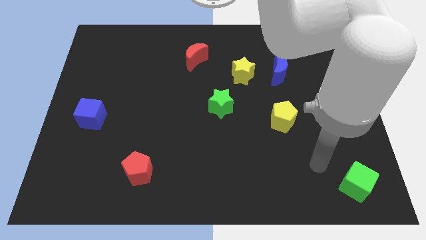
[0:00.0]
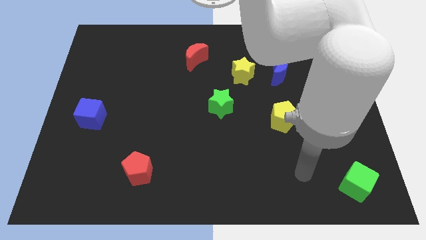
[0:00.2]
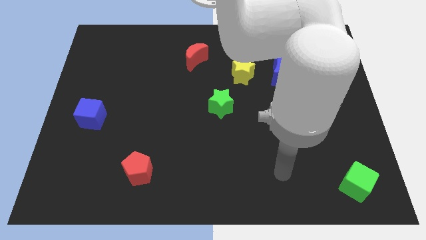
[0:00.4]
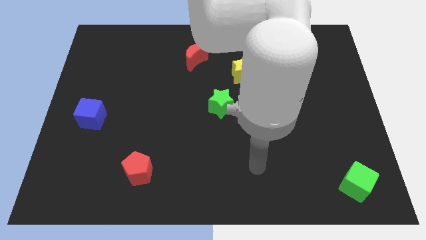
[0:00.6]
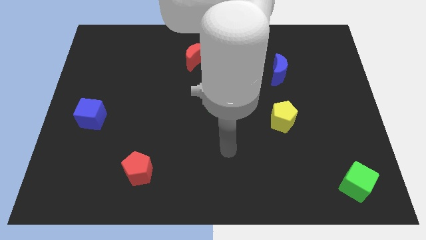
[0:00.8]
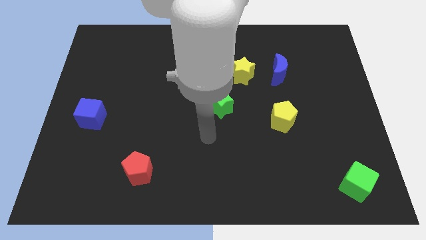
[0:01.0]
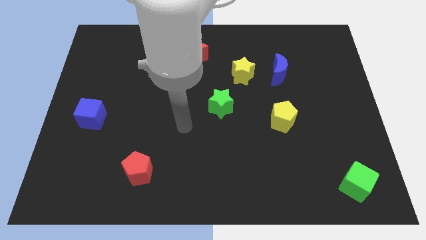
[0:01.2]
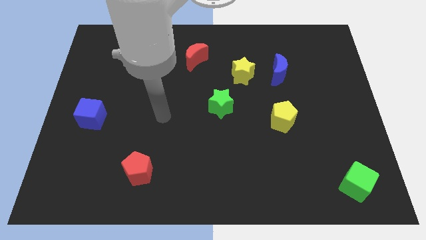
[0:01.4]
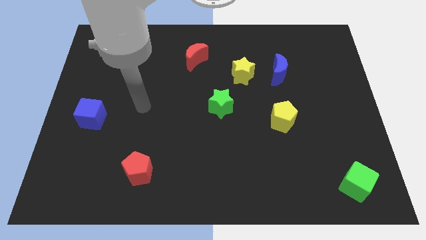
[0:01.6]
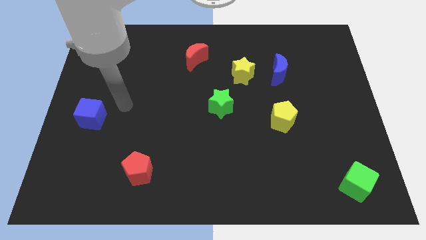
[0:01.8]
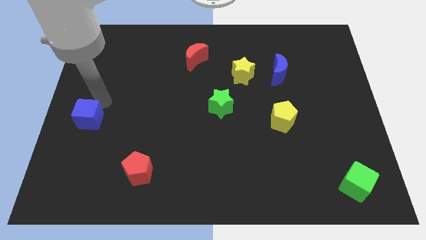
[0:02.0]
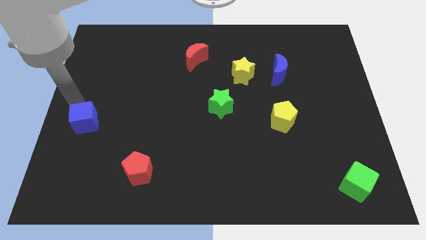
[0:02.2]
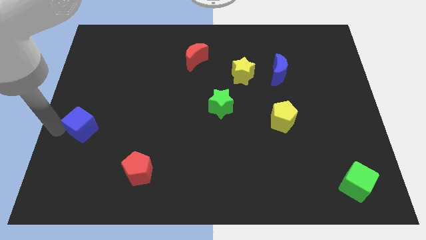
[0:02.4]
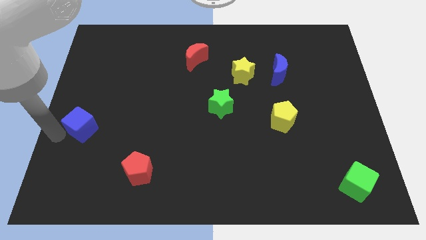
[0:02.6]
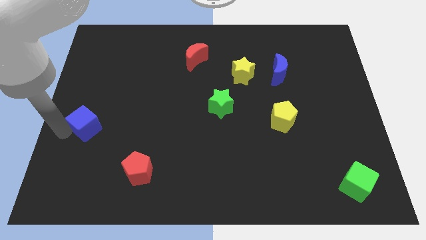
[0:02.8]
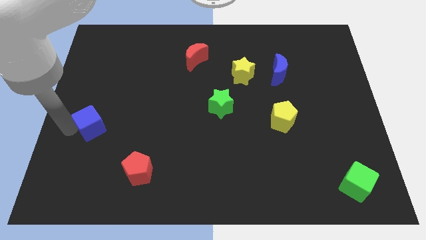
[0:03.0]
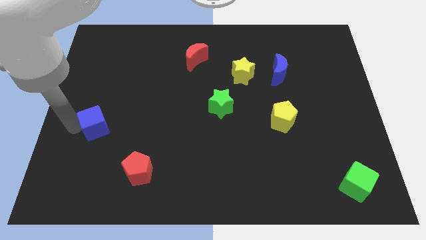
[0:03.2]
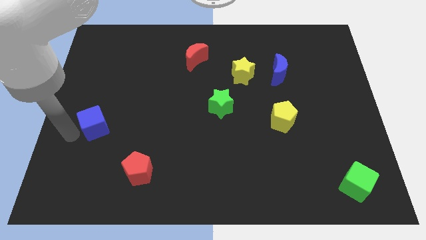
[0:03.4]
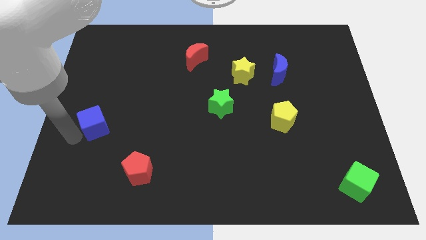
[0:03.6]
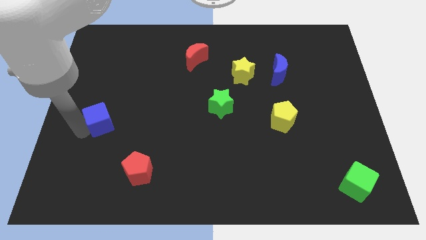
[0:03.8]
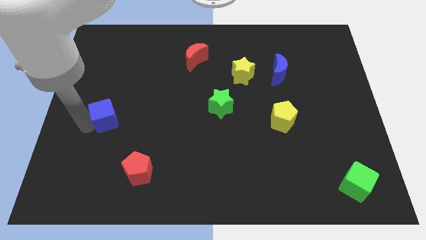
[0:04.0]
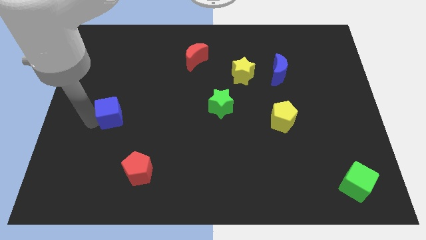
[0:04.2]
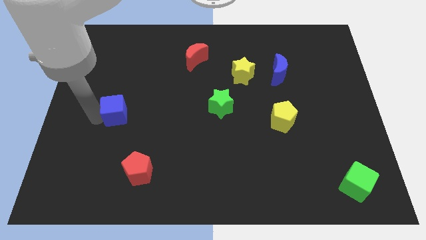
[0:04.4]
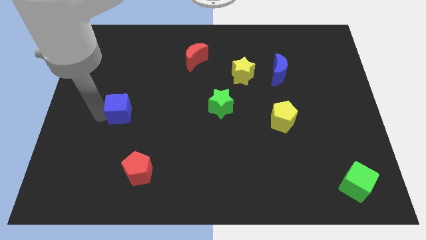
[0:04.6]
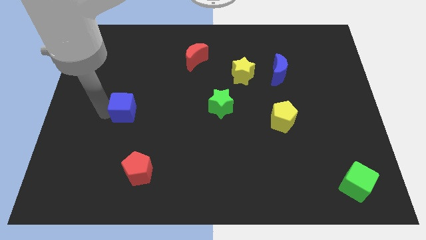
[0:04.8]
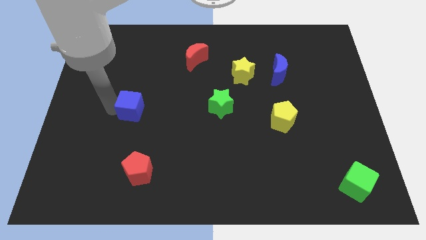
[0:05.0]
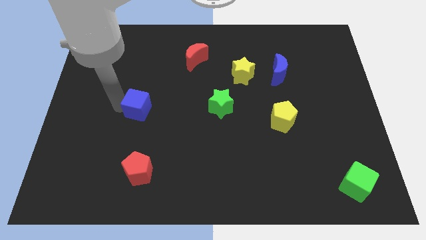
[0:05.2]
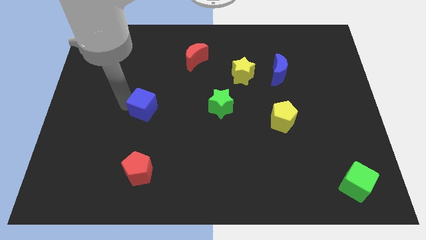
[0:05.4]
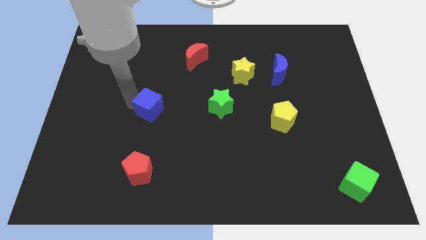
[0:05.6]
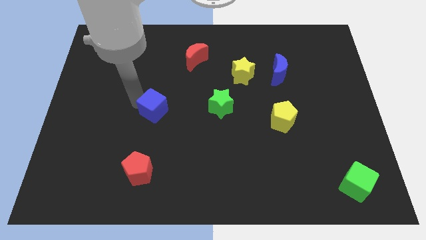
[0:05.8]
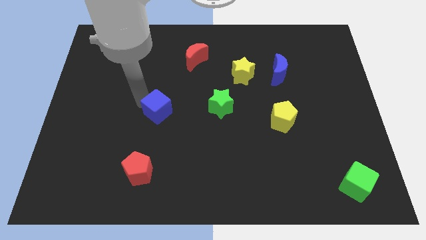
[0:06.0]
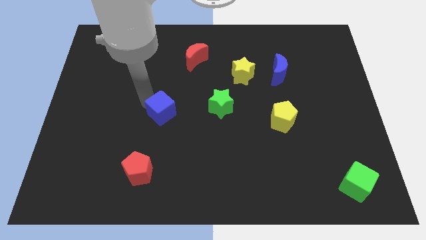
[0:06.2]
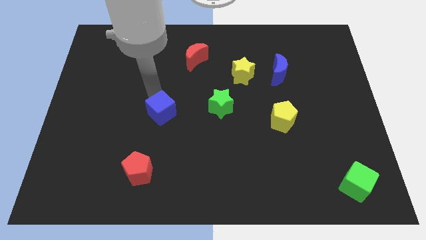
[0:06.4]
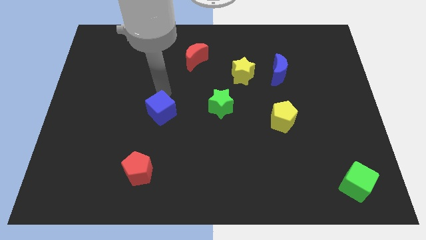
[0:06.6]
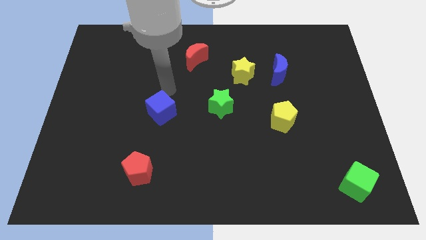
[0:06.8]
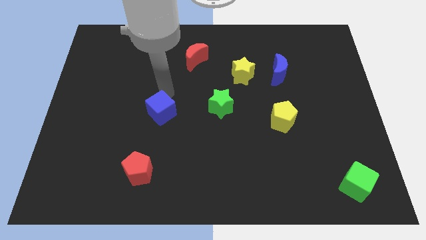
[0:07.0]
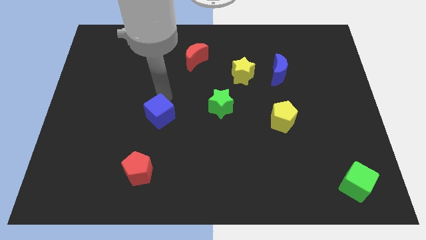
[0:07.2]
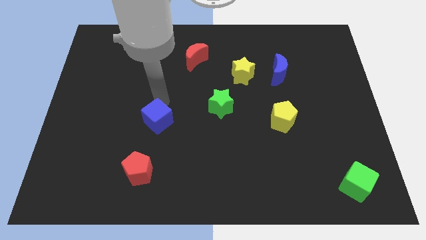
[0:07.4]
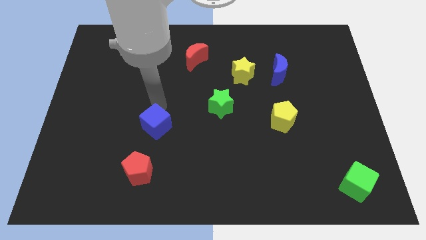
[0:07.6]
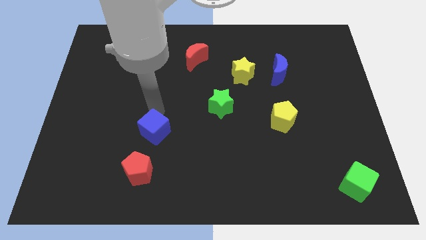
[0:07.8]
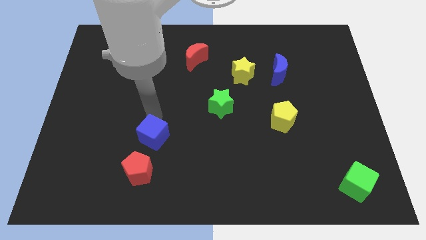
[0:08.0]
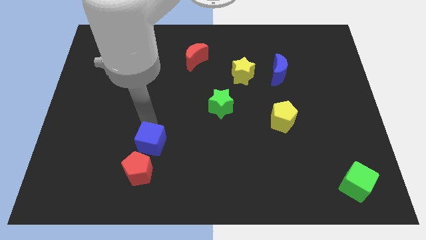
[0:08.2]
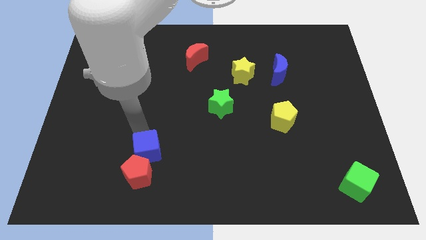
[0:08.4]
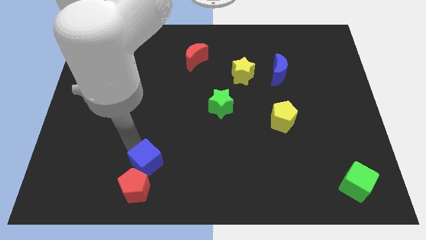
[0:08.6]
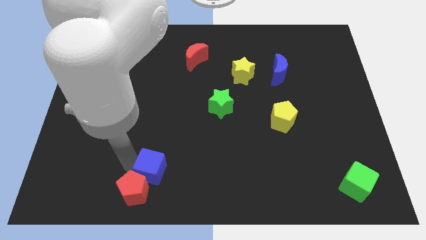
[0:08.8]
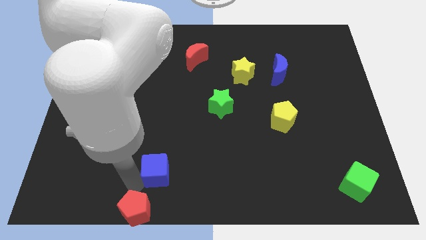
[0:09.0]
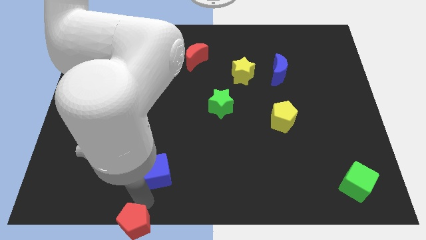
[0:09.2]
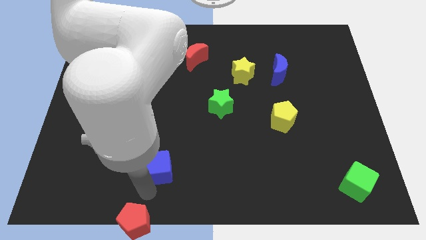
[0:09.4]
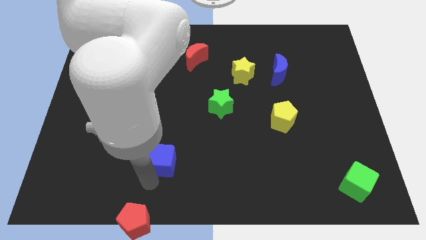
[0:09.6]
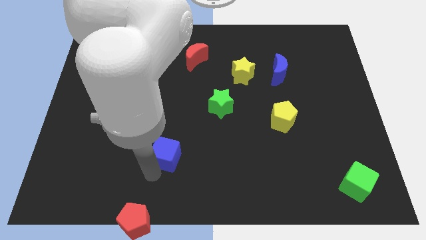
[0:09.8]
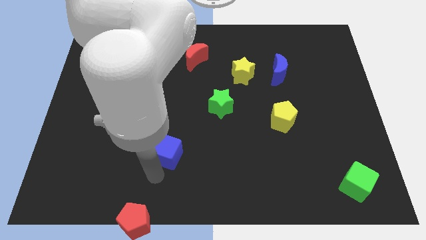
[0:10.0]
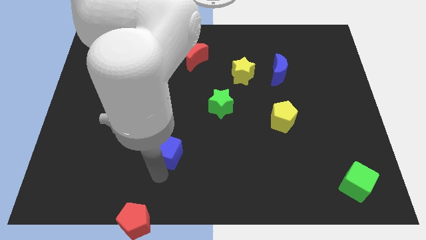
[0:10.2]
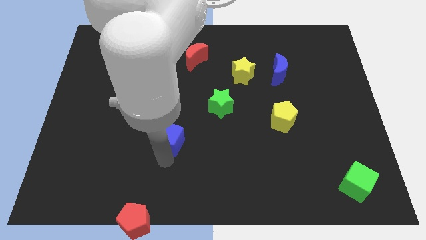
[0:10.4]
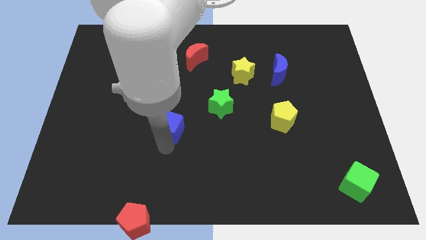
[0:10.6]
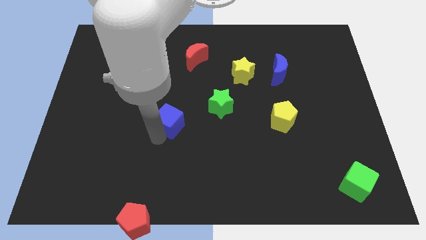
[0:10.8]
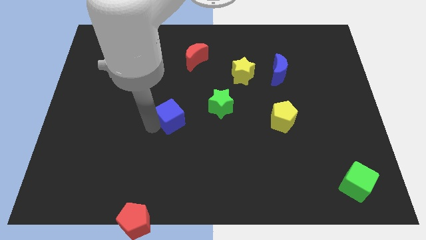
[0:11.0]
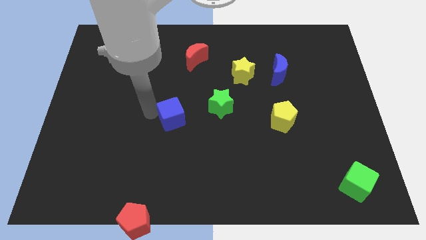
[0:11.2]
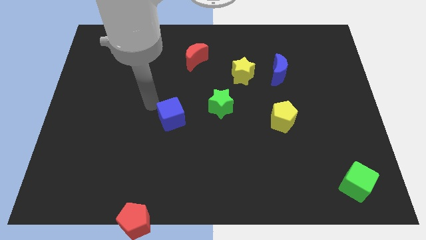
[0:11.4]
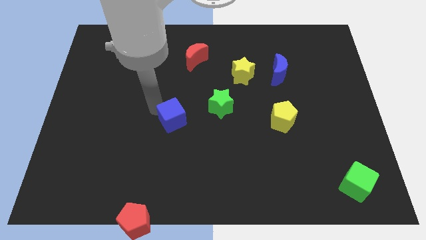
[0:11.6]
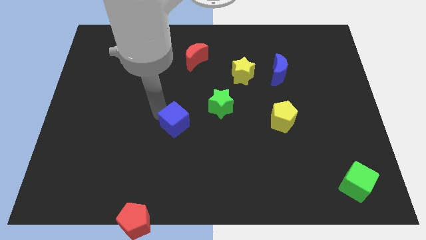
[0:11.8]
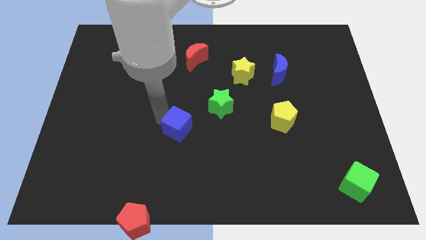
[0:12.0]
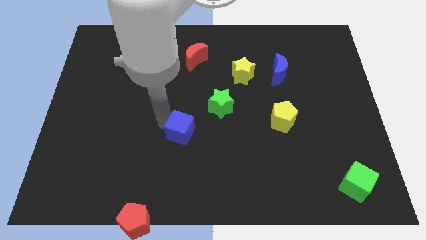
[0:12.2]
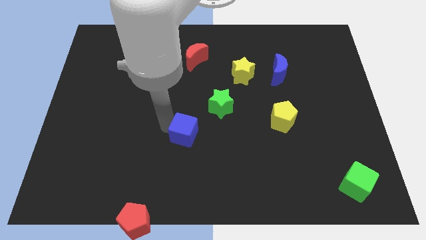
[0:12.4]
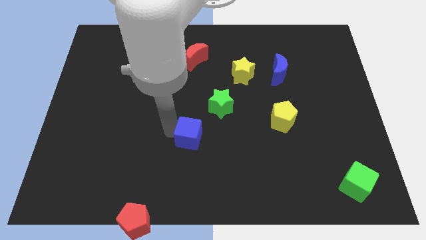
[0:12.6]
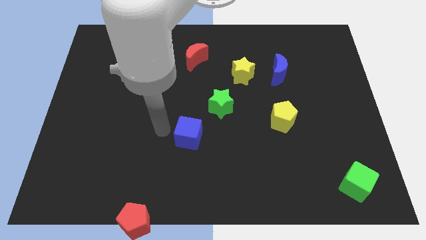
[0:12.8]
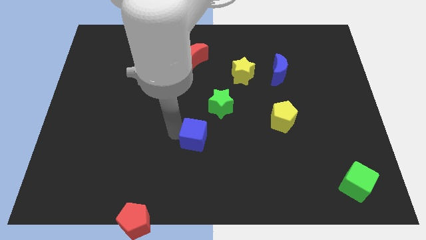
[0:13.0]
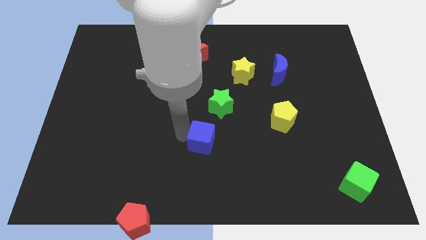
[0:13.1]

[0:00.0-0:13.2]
slide the blue cube to the bottom side of the green star

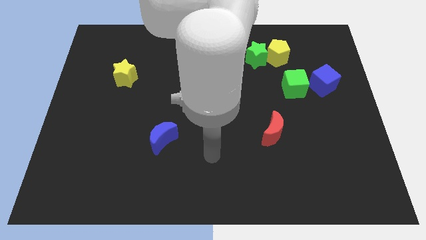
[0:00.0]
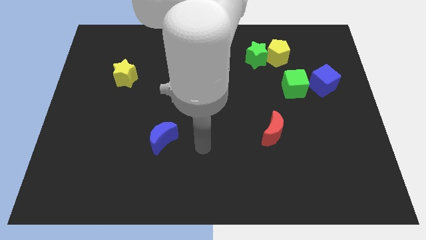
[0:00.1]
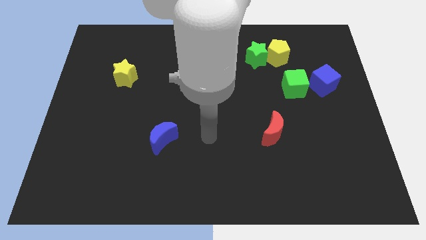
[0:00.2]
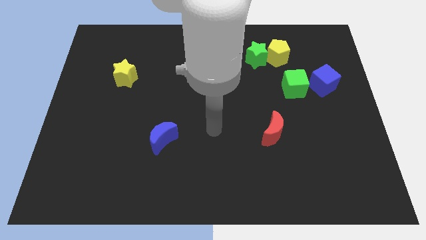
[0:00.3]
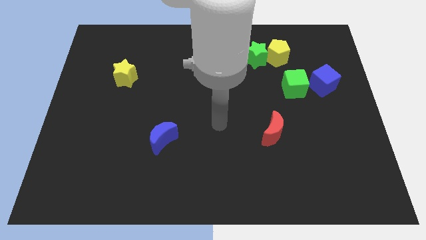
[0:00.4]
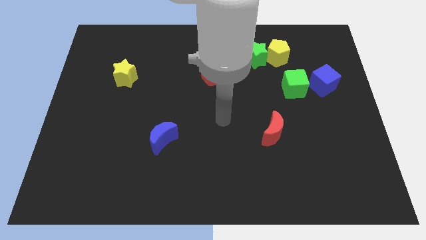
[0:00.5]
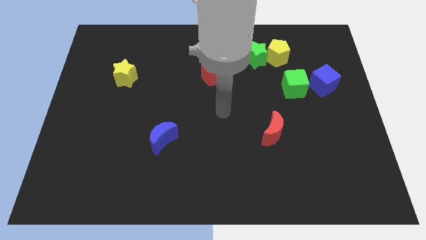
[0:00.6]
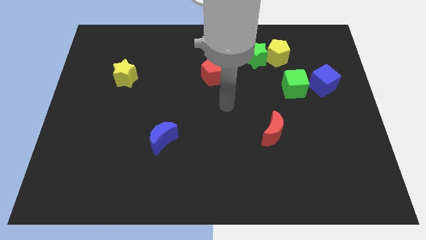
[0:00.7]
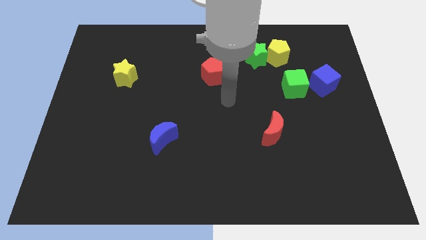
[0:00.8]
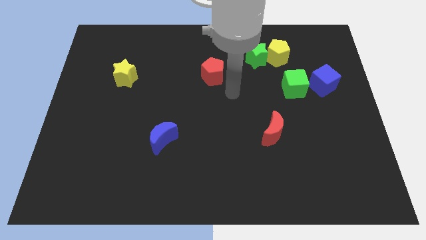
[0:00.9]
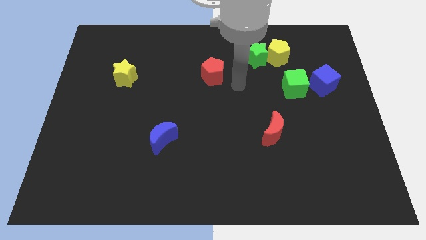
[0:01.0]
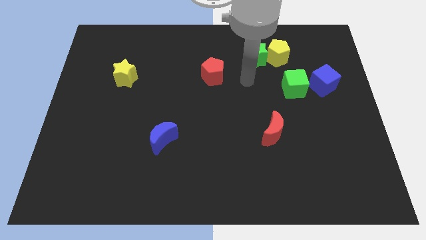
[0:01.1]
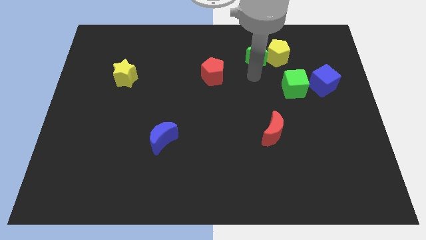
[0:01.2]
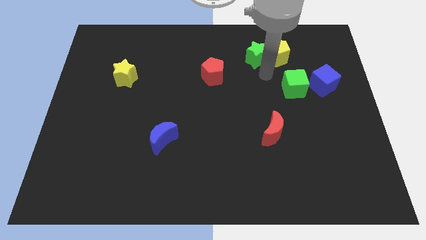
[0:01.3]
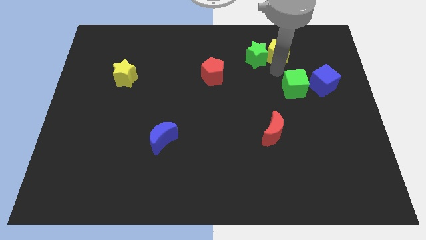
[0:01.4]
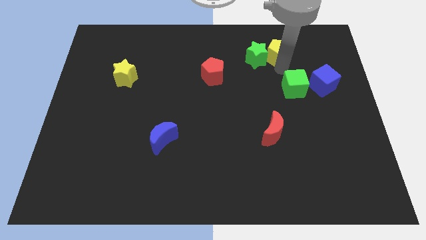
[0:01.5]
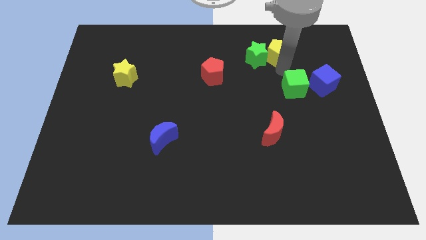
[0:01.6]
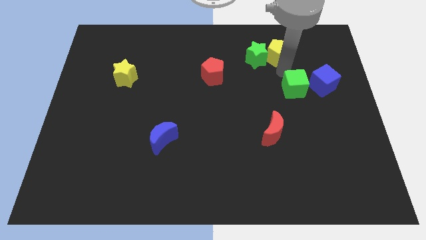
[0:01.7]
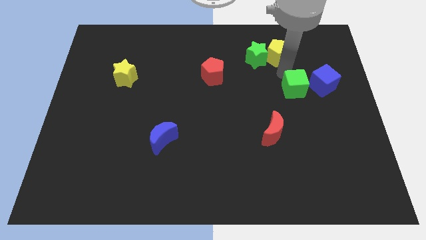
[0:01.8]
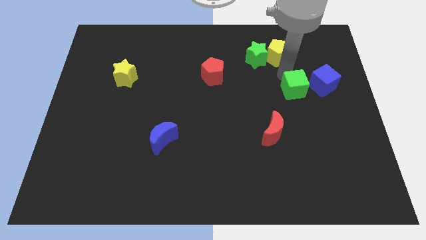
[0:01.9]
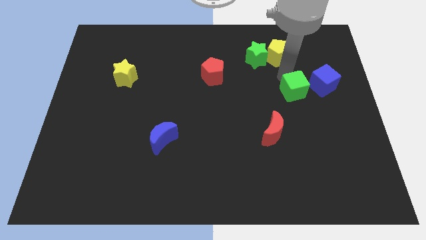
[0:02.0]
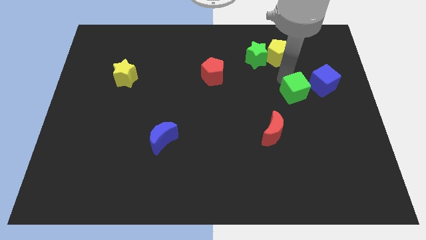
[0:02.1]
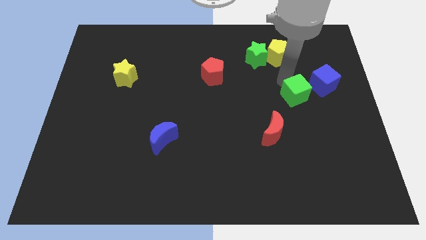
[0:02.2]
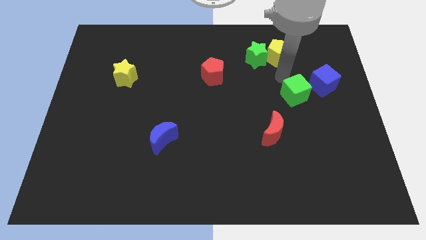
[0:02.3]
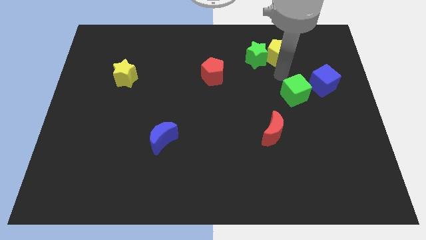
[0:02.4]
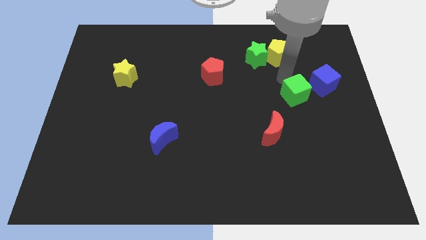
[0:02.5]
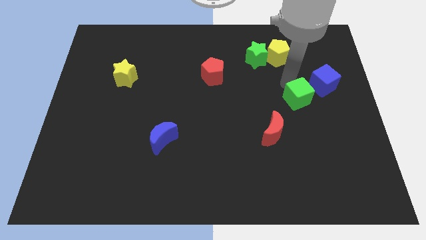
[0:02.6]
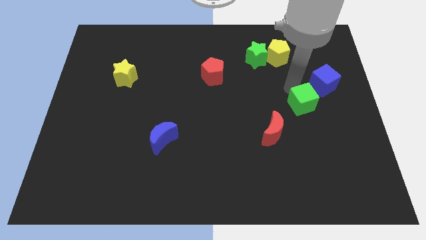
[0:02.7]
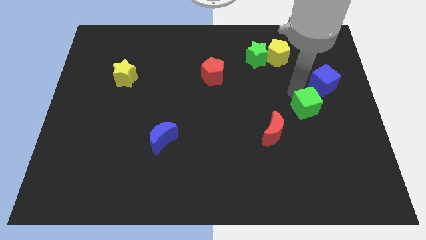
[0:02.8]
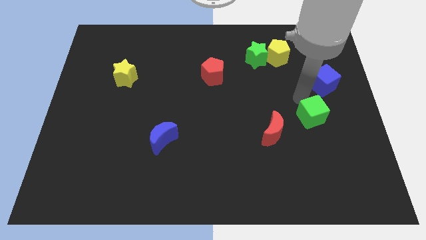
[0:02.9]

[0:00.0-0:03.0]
put the green cube right of the red moon
